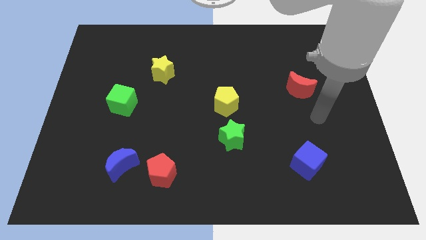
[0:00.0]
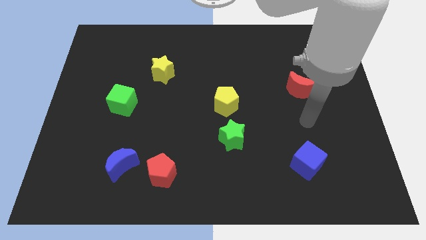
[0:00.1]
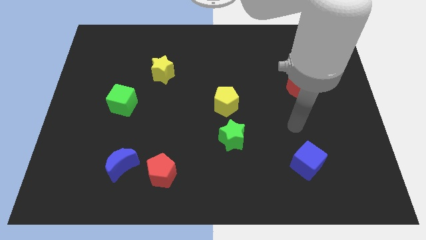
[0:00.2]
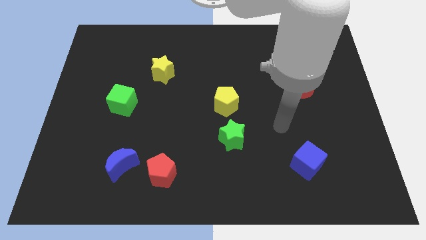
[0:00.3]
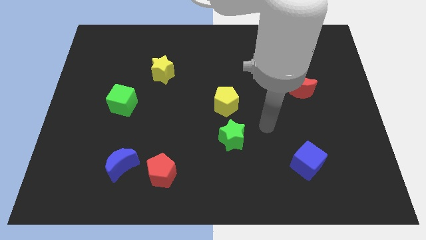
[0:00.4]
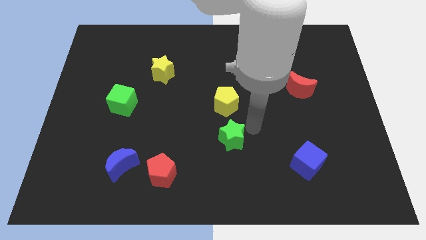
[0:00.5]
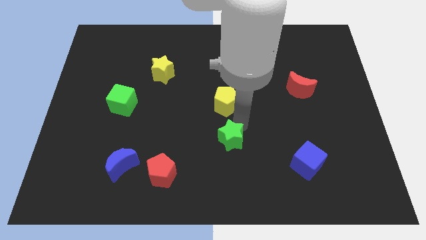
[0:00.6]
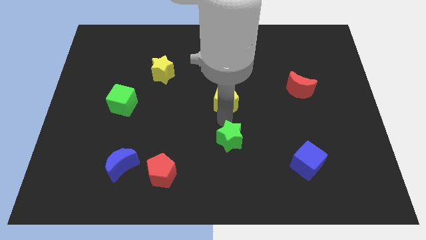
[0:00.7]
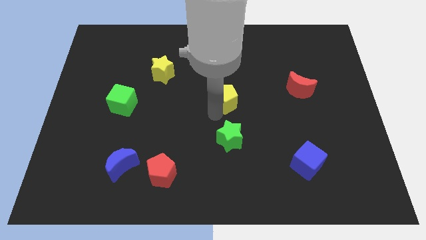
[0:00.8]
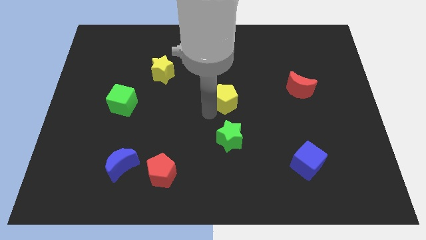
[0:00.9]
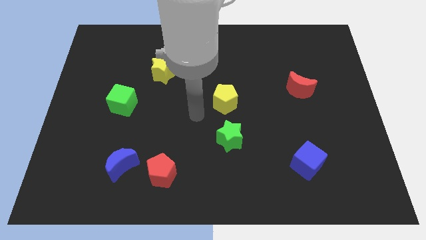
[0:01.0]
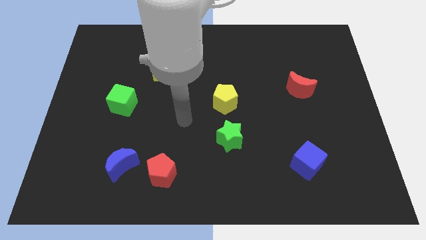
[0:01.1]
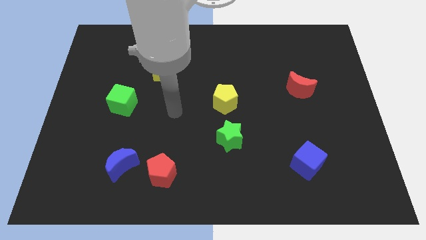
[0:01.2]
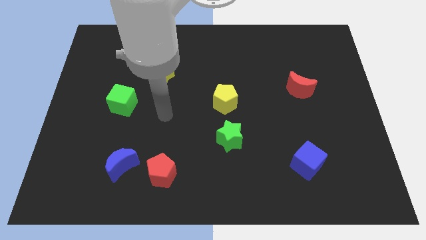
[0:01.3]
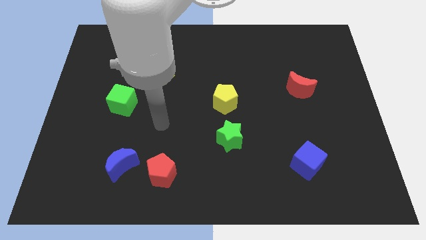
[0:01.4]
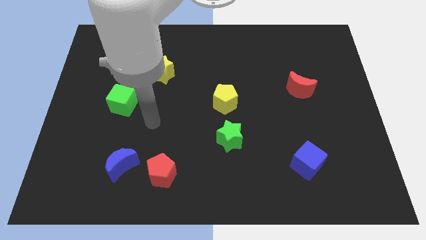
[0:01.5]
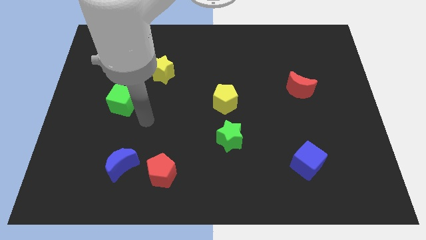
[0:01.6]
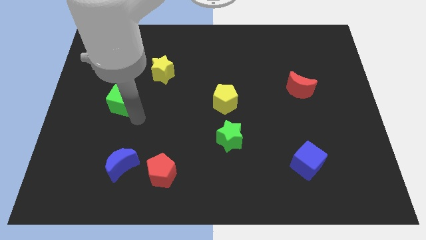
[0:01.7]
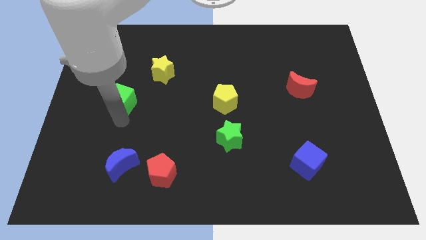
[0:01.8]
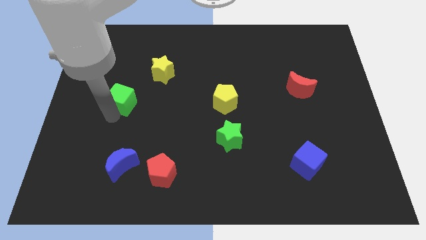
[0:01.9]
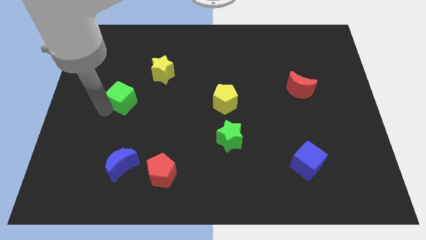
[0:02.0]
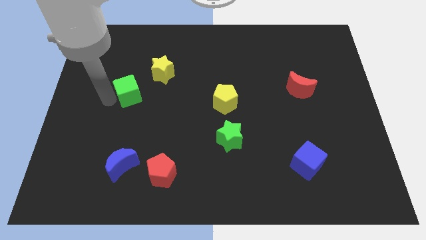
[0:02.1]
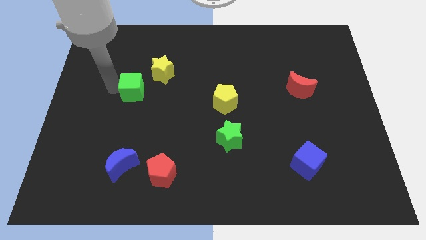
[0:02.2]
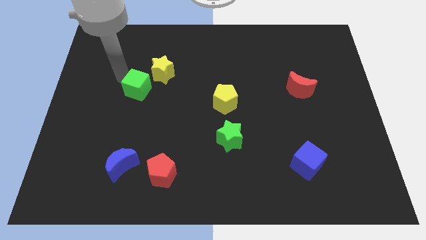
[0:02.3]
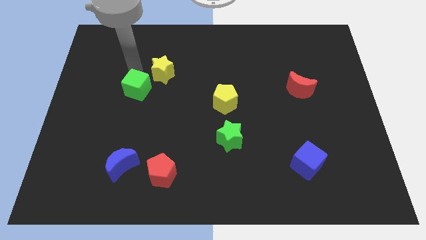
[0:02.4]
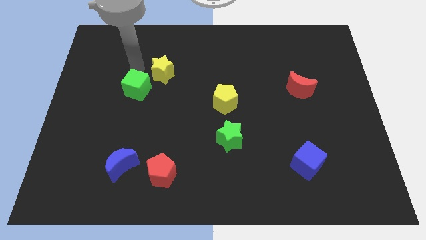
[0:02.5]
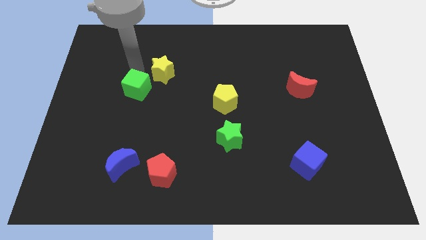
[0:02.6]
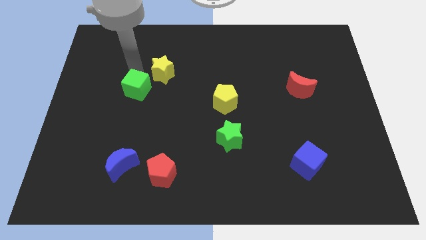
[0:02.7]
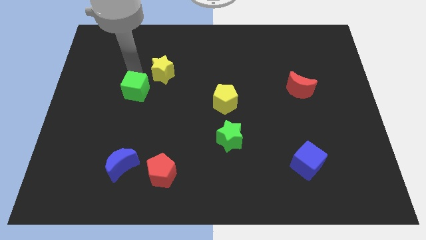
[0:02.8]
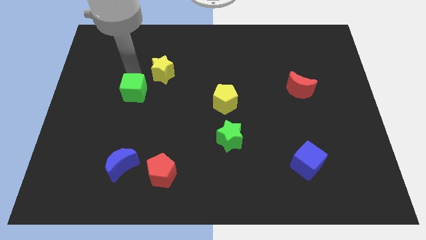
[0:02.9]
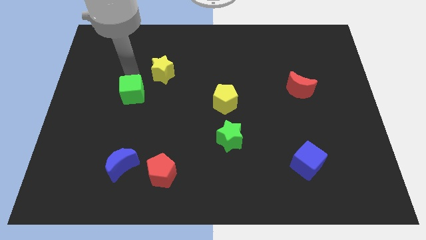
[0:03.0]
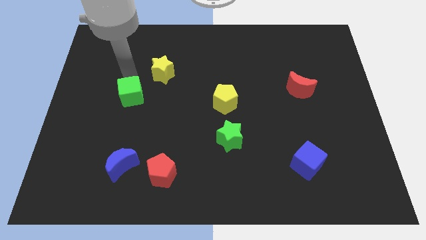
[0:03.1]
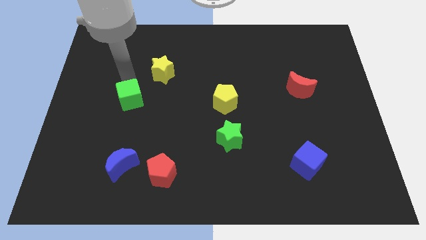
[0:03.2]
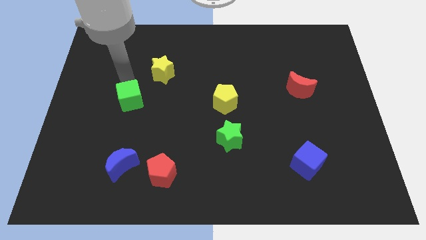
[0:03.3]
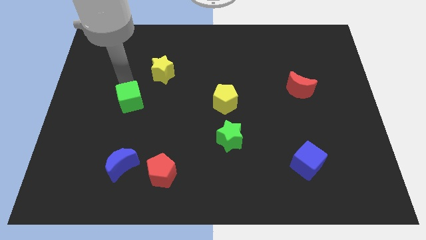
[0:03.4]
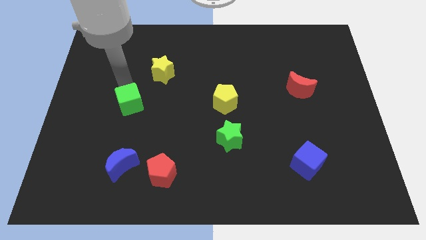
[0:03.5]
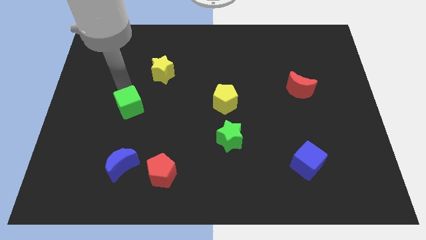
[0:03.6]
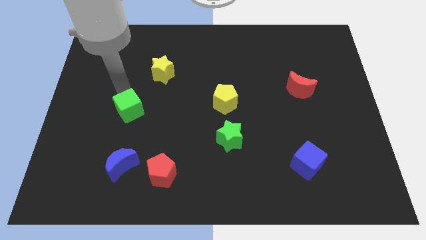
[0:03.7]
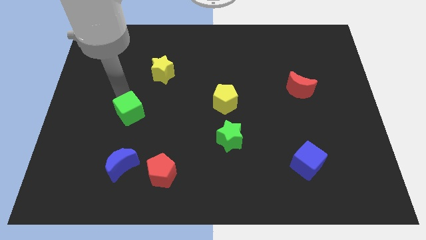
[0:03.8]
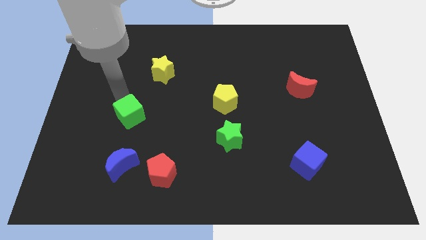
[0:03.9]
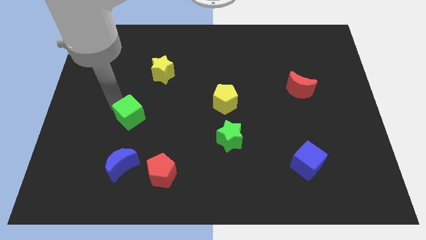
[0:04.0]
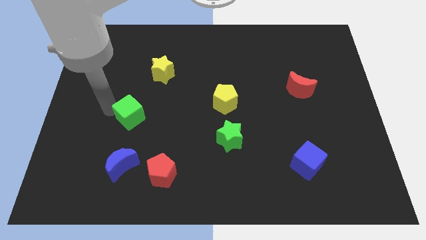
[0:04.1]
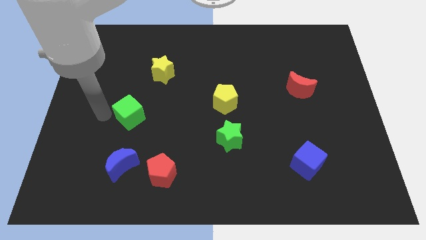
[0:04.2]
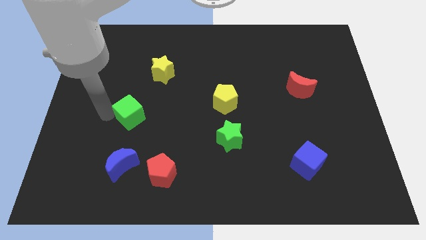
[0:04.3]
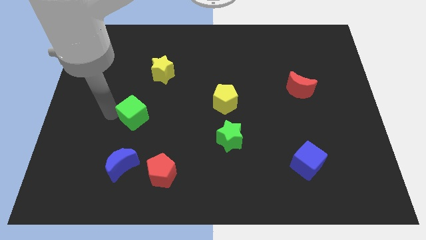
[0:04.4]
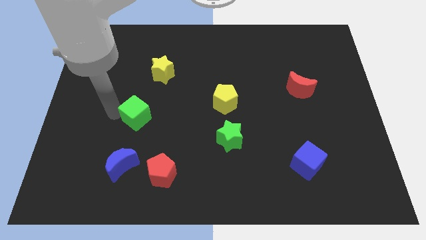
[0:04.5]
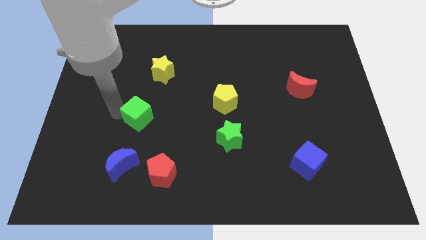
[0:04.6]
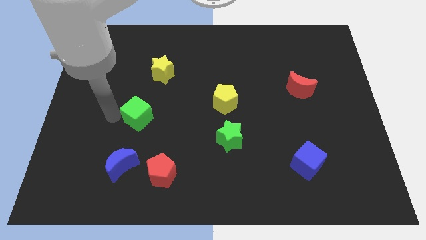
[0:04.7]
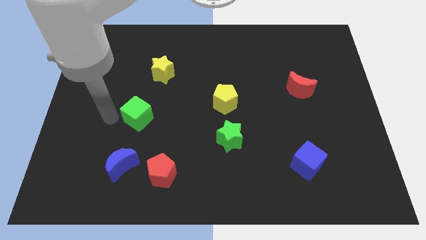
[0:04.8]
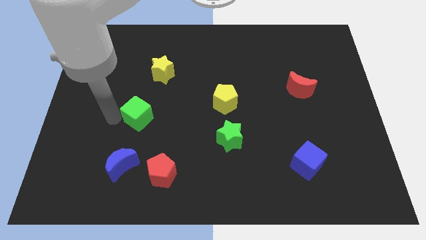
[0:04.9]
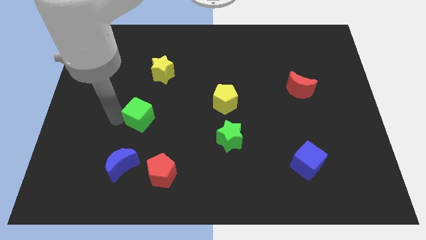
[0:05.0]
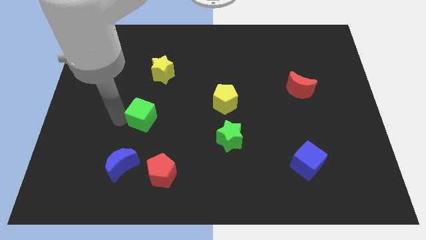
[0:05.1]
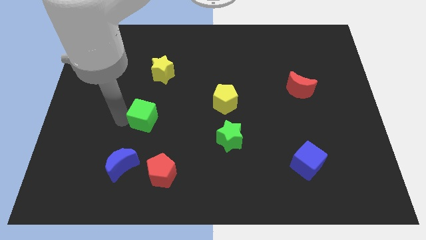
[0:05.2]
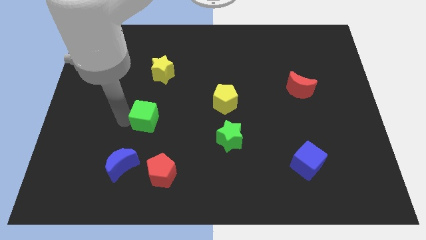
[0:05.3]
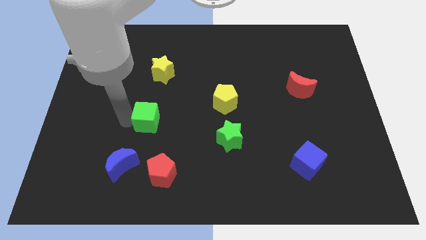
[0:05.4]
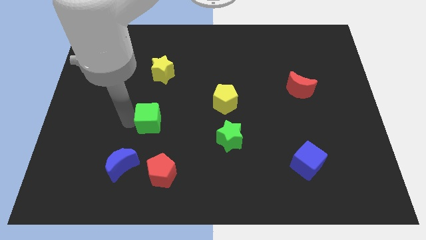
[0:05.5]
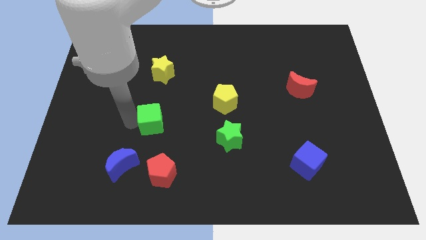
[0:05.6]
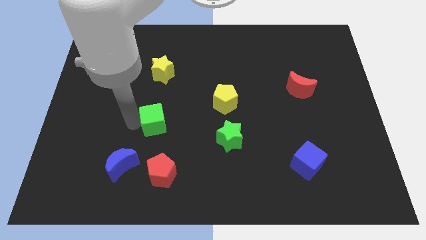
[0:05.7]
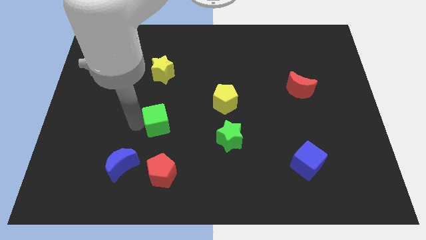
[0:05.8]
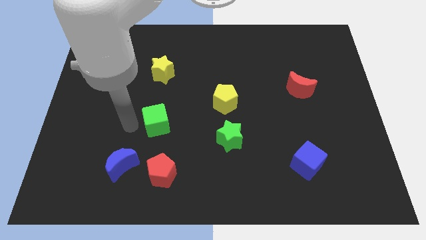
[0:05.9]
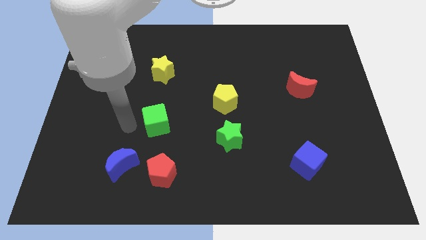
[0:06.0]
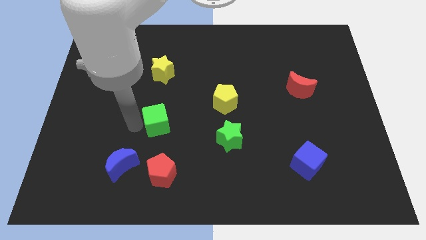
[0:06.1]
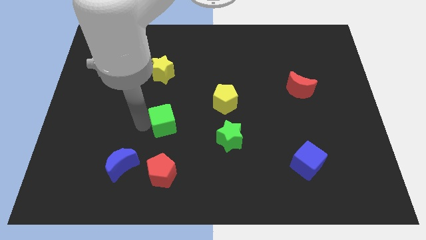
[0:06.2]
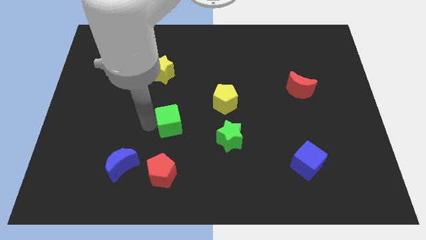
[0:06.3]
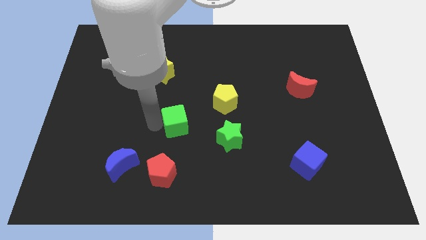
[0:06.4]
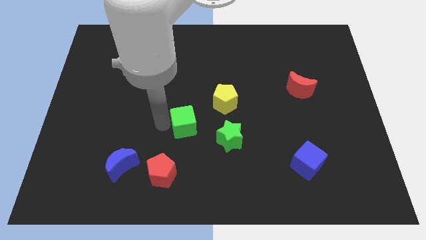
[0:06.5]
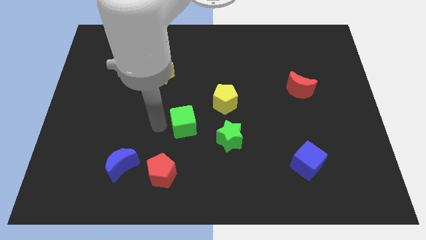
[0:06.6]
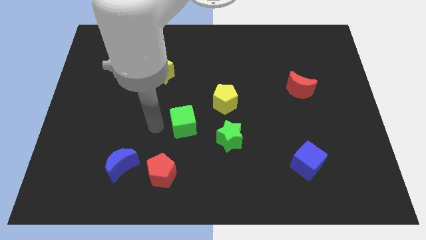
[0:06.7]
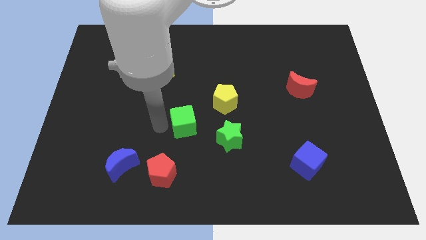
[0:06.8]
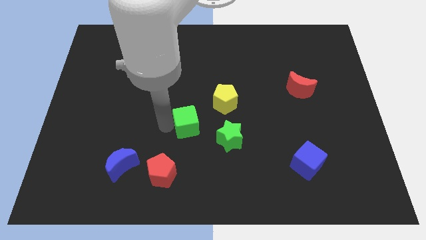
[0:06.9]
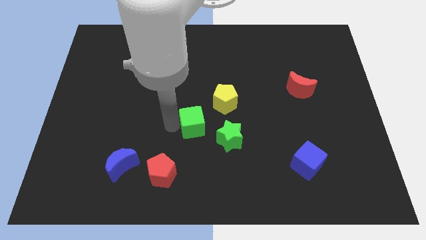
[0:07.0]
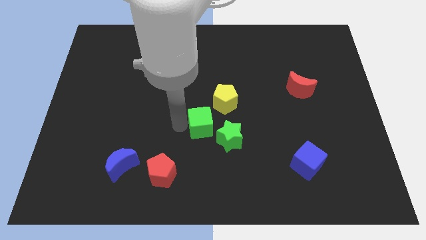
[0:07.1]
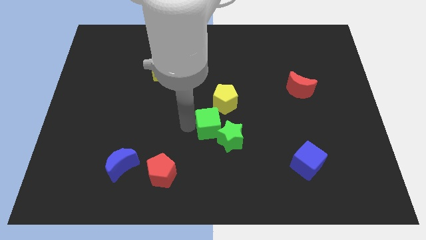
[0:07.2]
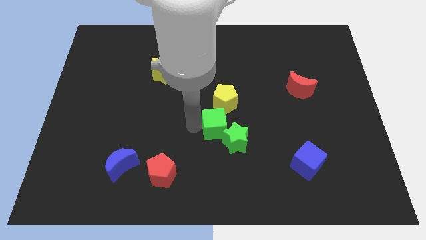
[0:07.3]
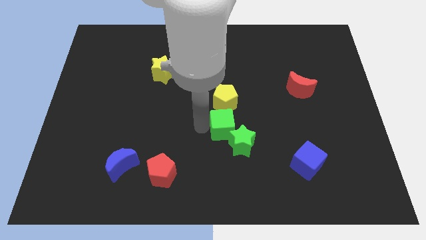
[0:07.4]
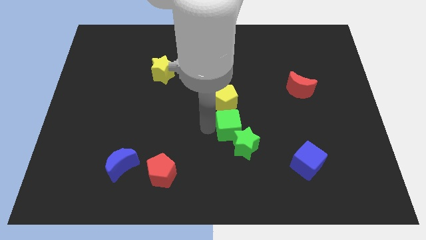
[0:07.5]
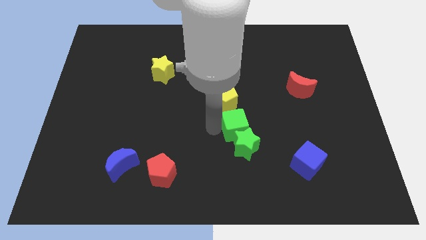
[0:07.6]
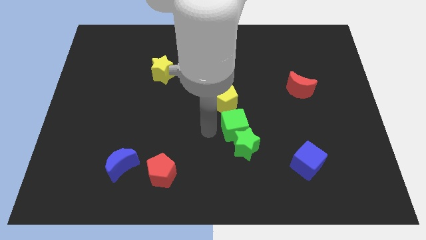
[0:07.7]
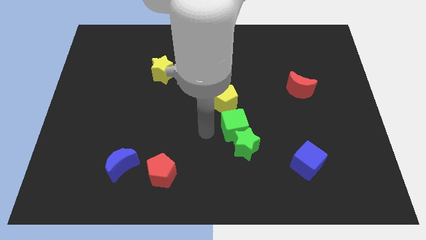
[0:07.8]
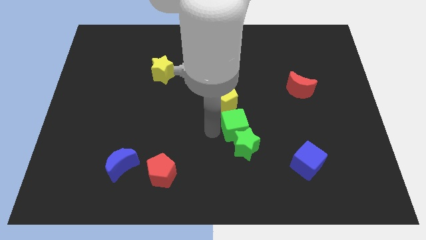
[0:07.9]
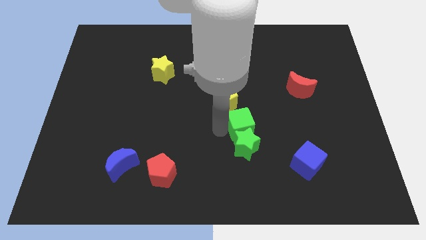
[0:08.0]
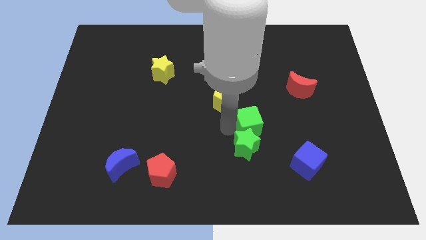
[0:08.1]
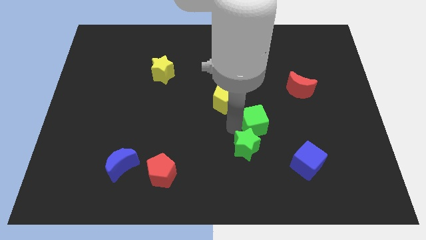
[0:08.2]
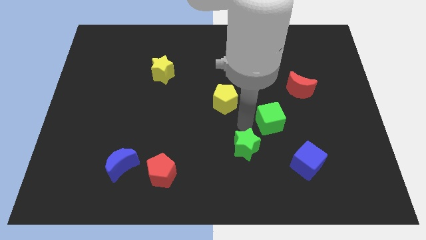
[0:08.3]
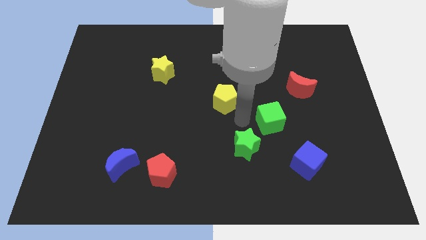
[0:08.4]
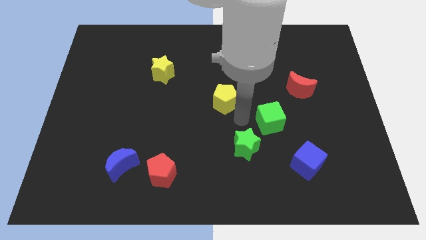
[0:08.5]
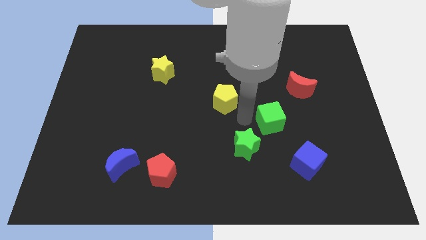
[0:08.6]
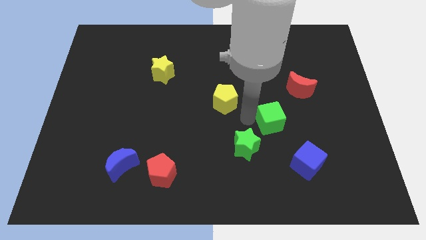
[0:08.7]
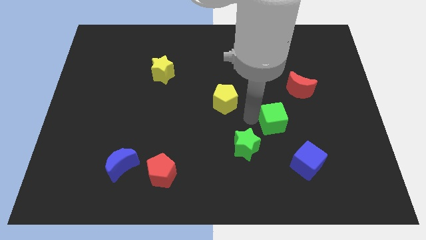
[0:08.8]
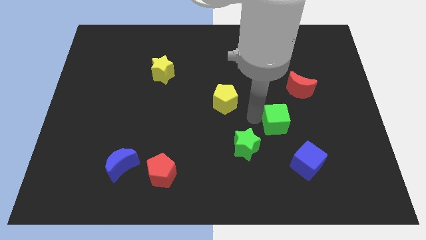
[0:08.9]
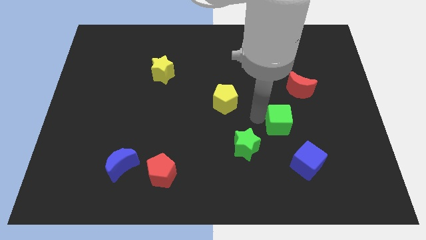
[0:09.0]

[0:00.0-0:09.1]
move the green cube to the top side of the blue cube
